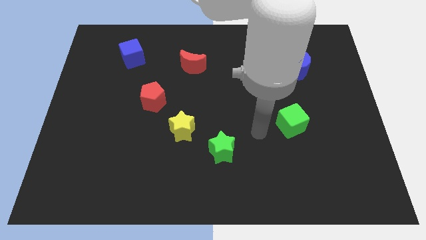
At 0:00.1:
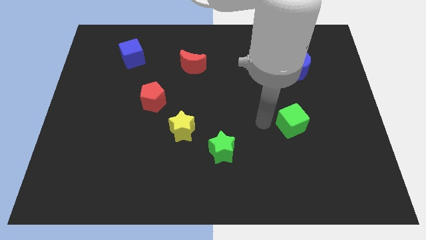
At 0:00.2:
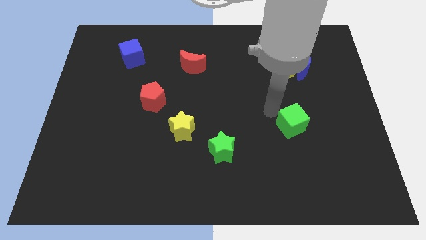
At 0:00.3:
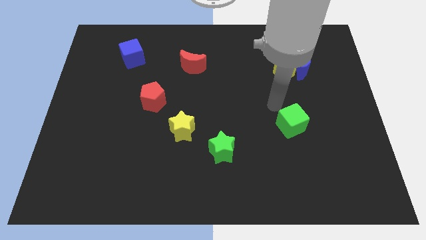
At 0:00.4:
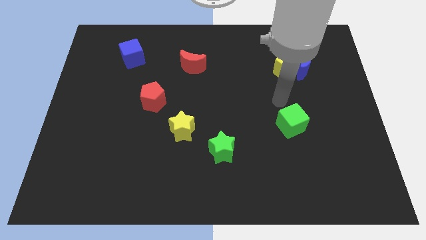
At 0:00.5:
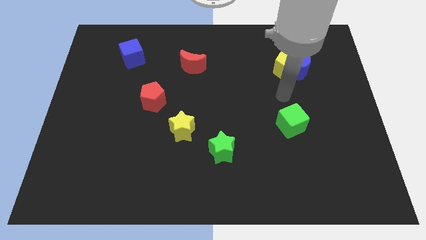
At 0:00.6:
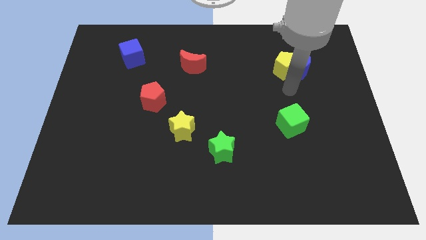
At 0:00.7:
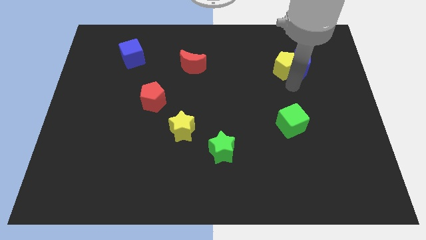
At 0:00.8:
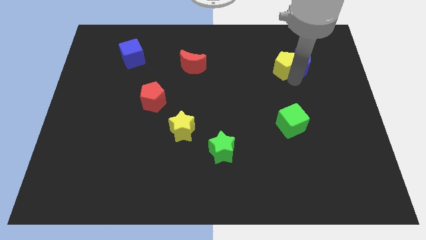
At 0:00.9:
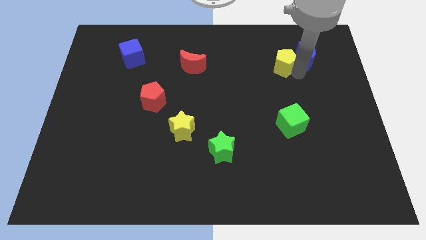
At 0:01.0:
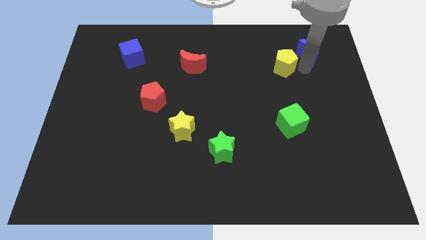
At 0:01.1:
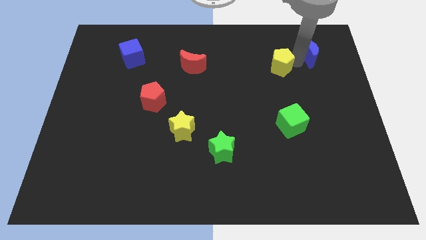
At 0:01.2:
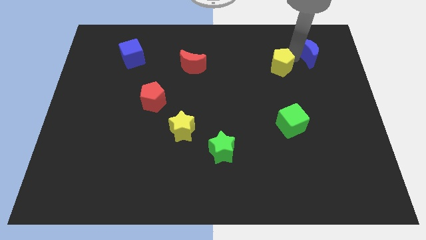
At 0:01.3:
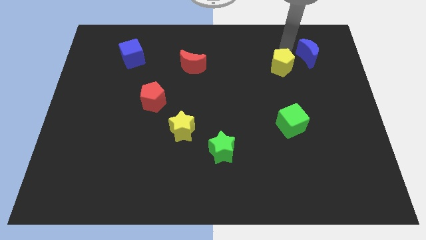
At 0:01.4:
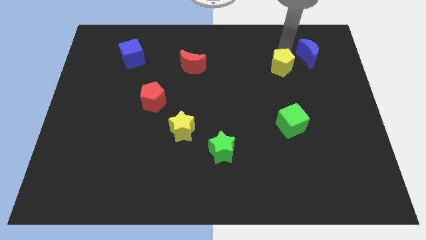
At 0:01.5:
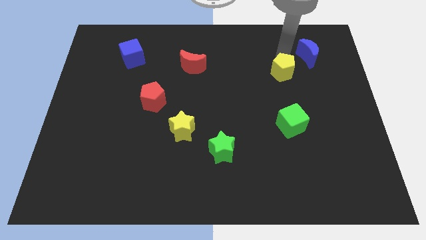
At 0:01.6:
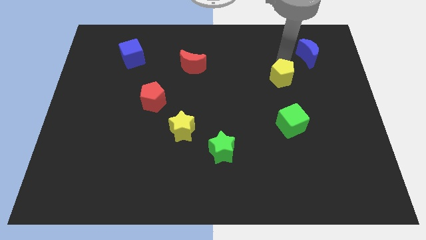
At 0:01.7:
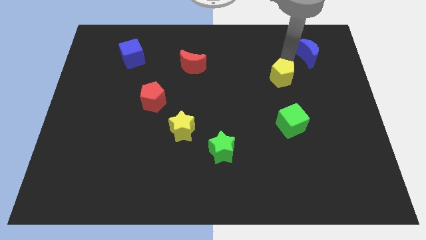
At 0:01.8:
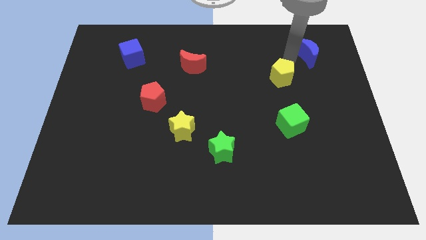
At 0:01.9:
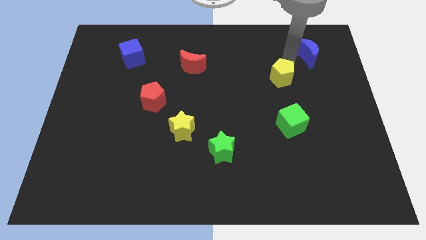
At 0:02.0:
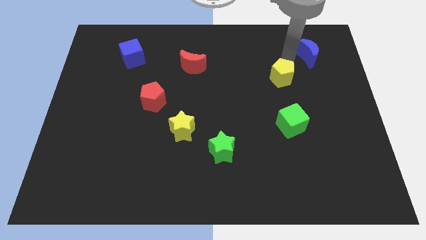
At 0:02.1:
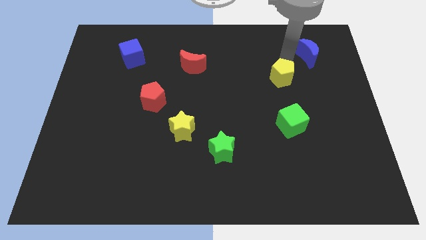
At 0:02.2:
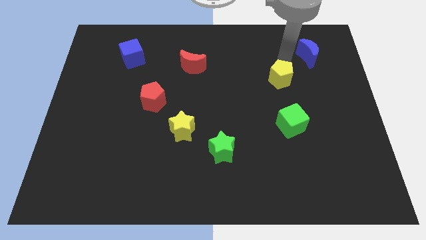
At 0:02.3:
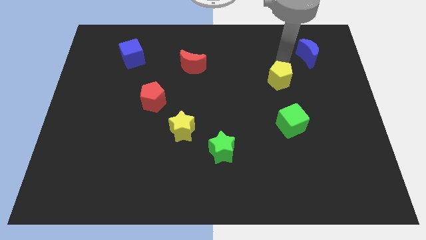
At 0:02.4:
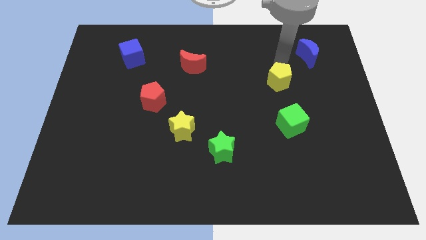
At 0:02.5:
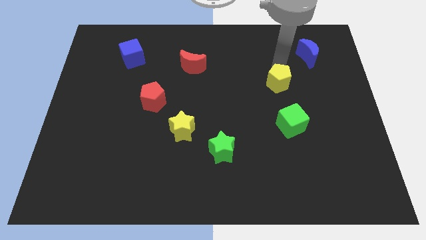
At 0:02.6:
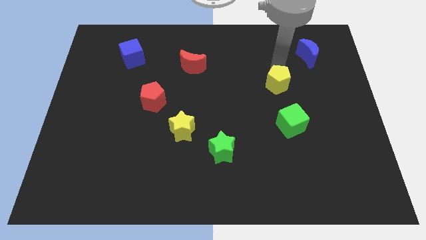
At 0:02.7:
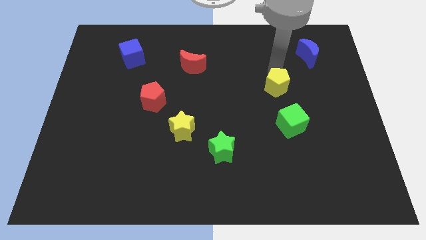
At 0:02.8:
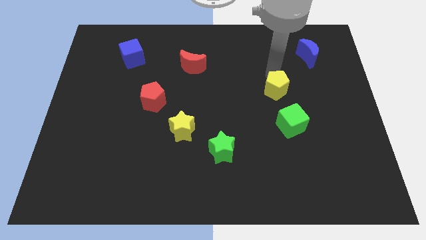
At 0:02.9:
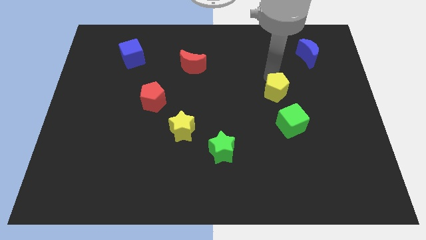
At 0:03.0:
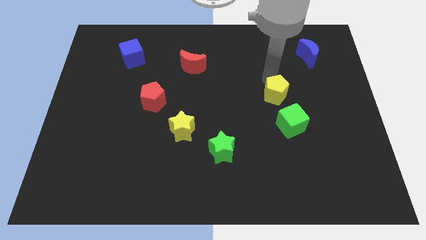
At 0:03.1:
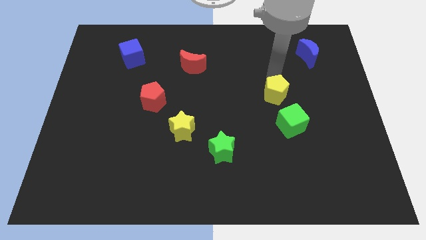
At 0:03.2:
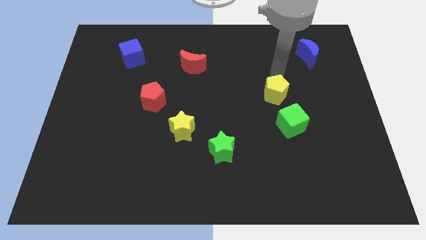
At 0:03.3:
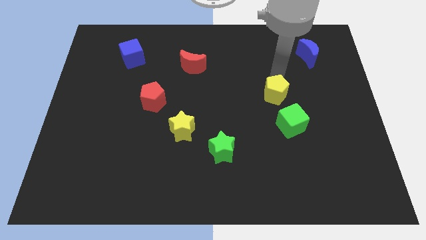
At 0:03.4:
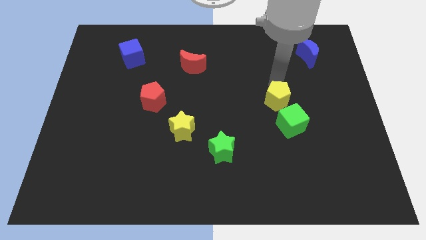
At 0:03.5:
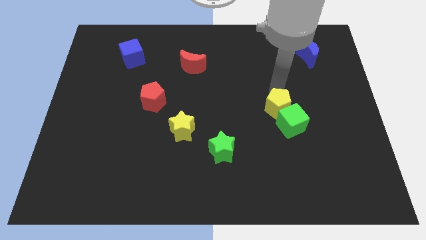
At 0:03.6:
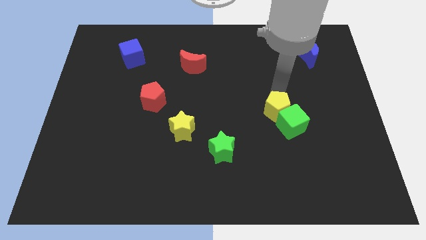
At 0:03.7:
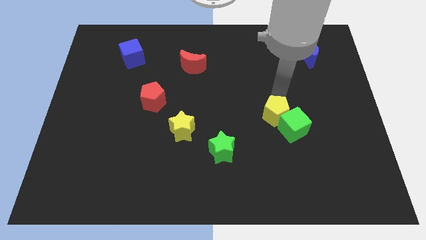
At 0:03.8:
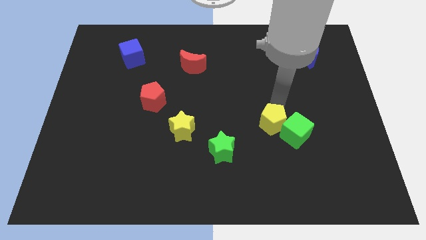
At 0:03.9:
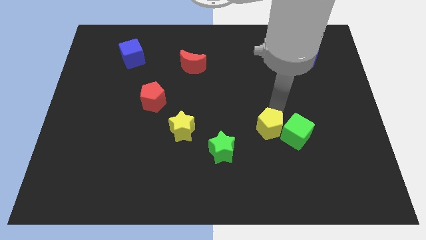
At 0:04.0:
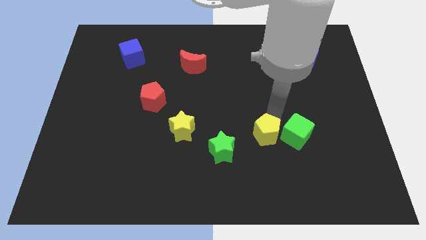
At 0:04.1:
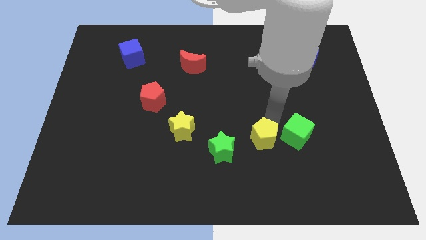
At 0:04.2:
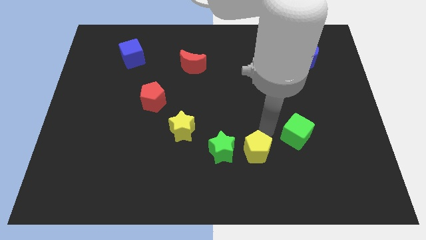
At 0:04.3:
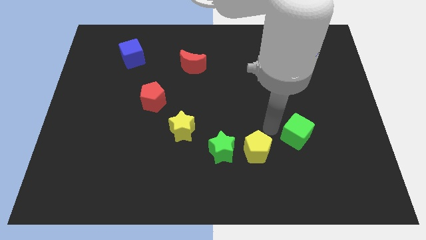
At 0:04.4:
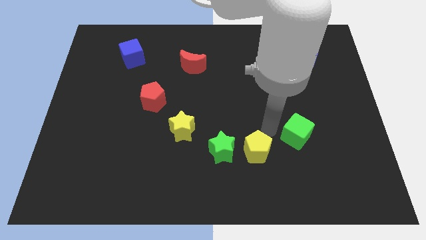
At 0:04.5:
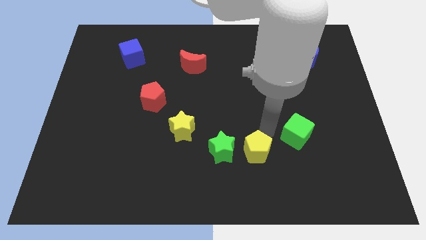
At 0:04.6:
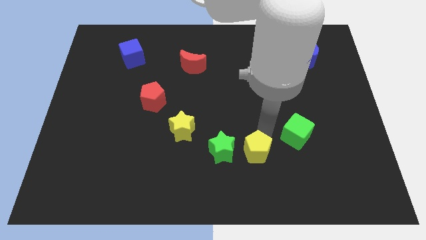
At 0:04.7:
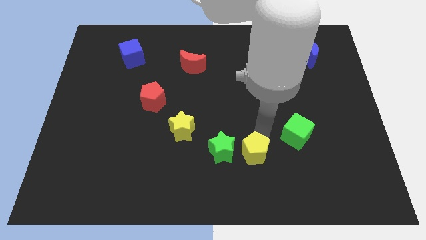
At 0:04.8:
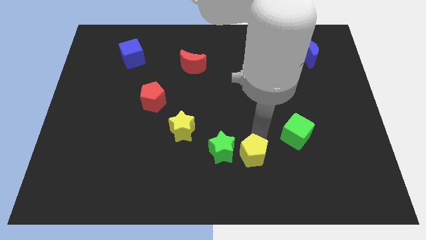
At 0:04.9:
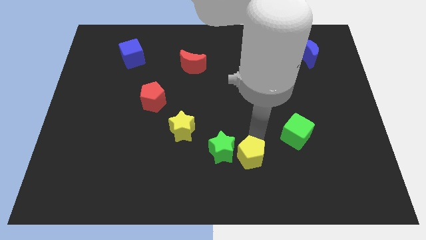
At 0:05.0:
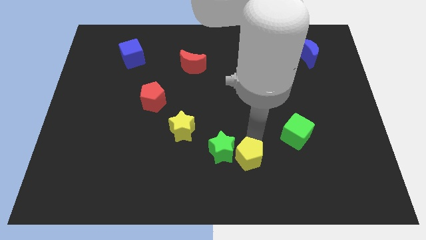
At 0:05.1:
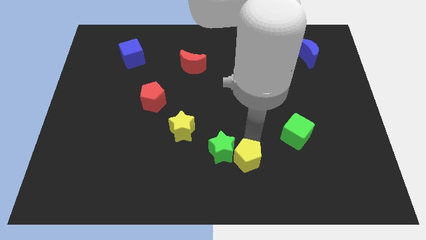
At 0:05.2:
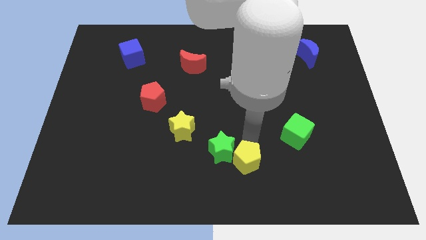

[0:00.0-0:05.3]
move the yellow pentagon to the bottom side

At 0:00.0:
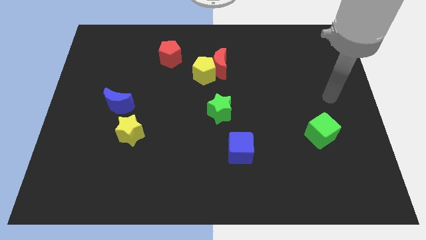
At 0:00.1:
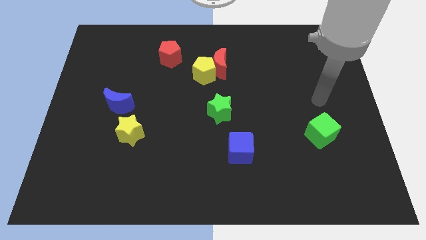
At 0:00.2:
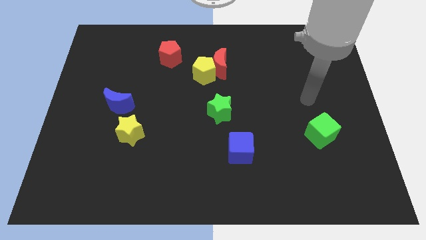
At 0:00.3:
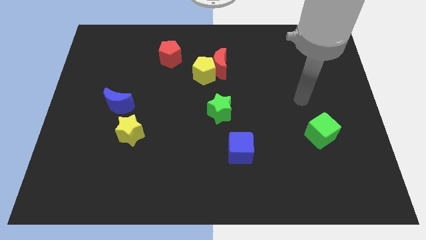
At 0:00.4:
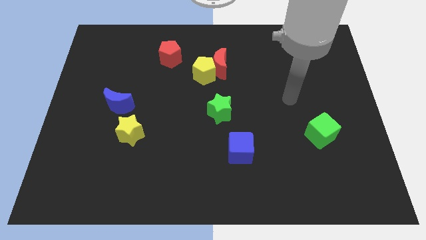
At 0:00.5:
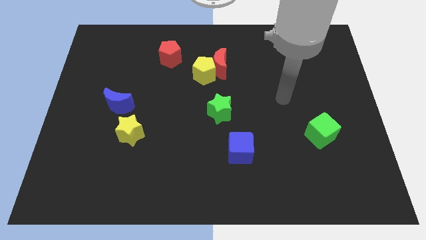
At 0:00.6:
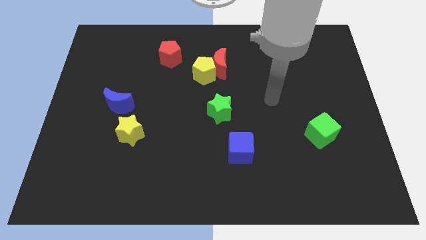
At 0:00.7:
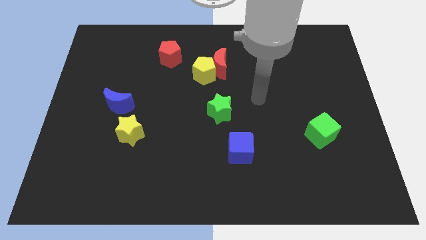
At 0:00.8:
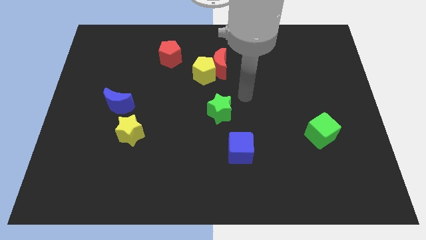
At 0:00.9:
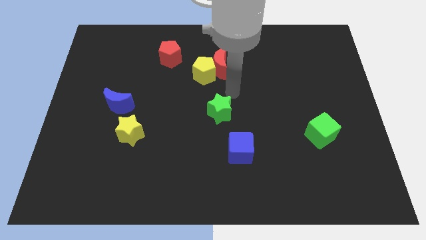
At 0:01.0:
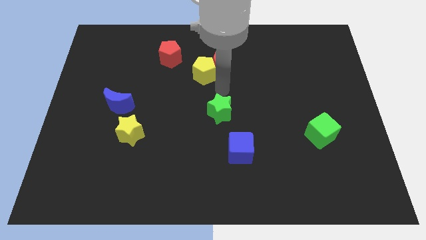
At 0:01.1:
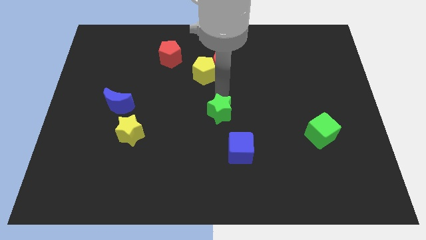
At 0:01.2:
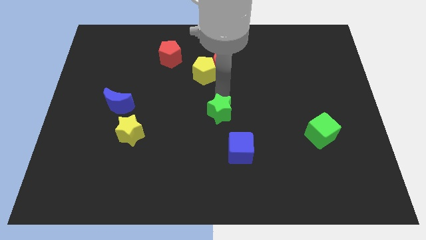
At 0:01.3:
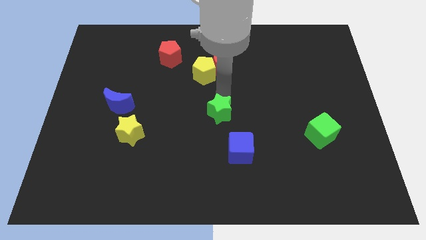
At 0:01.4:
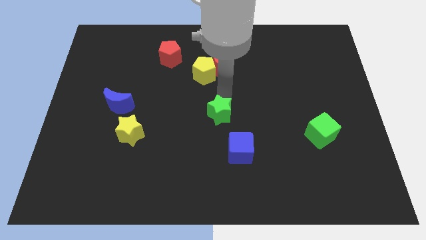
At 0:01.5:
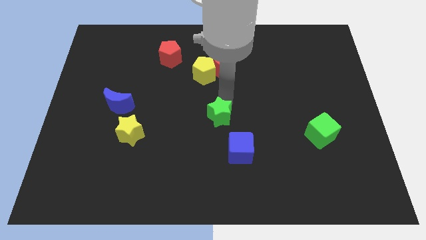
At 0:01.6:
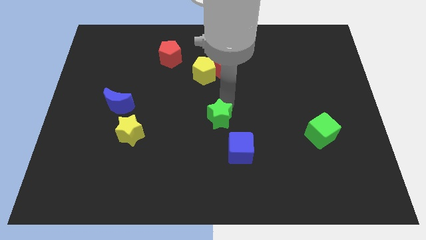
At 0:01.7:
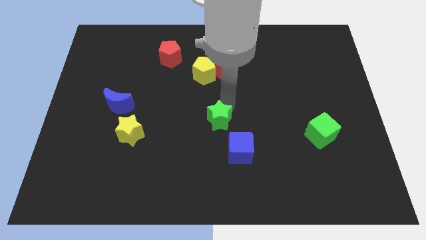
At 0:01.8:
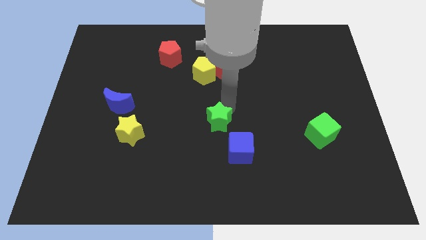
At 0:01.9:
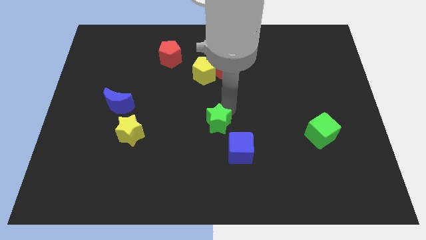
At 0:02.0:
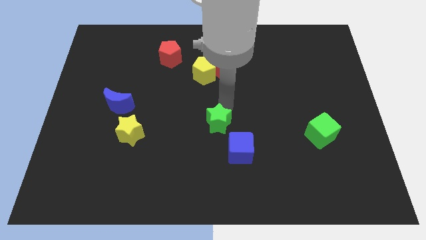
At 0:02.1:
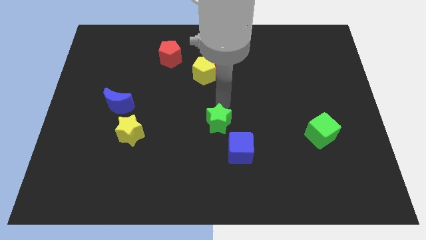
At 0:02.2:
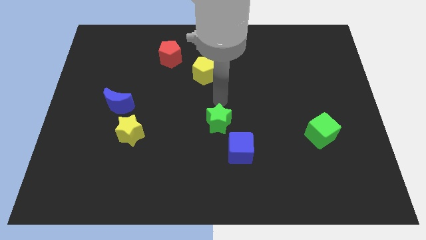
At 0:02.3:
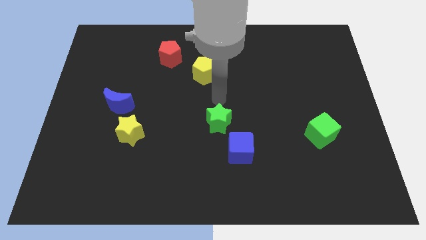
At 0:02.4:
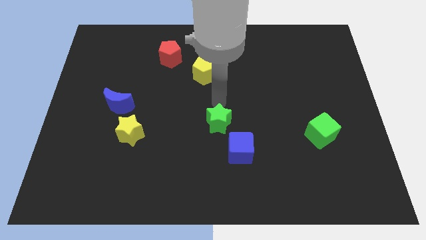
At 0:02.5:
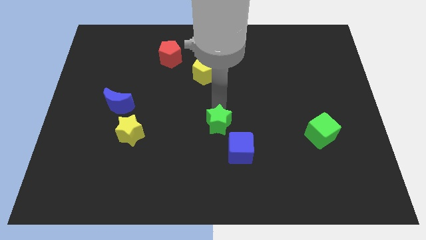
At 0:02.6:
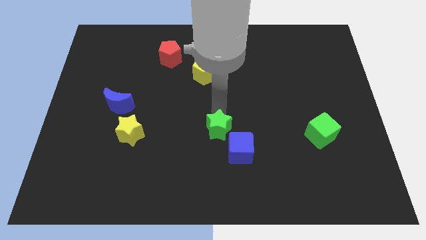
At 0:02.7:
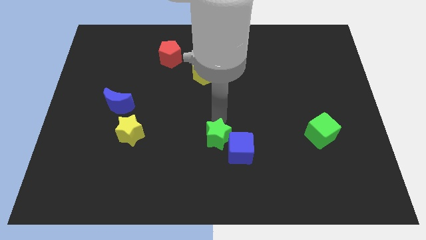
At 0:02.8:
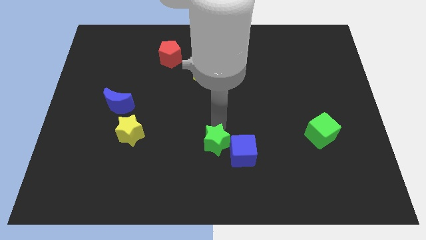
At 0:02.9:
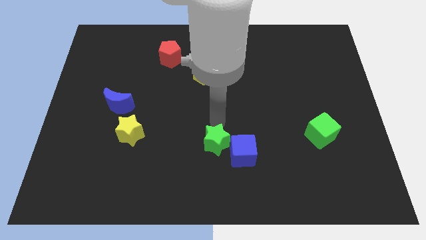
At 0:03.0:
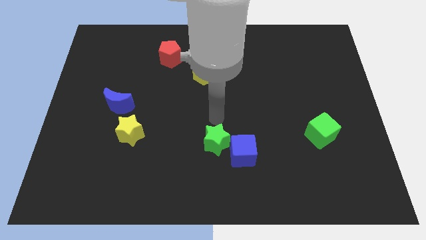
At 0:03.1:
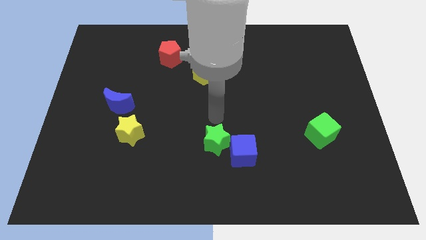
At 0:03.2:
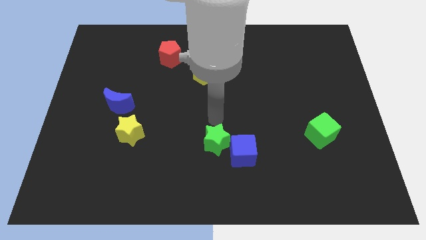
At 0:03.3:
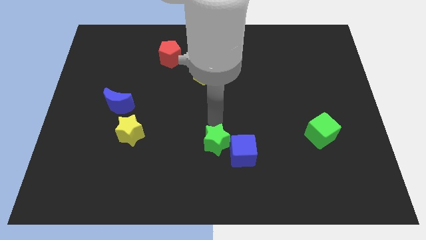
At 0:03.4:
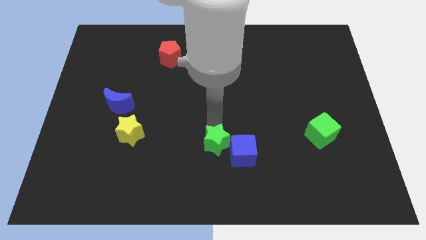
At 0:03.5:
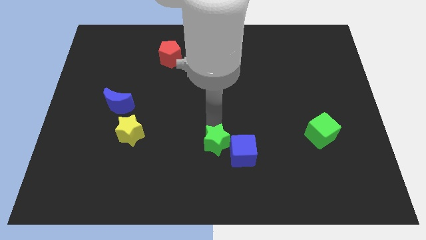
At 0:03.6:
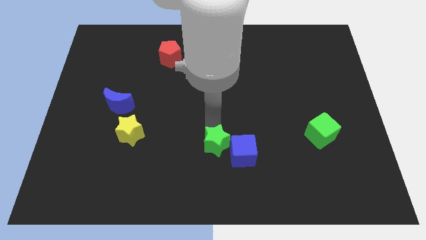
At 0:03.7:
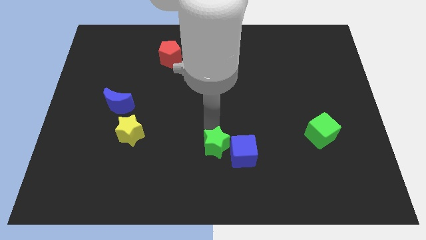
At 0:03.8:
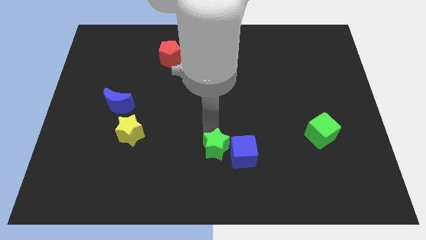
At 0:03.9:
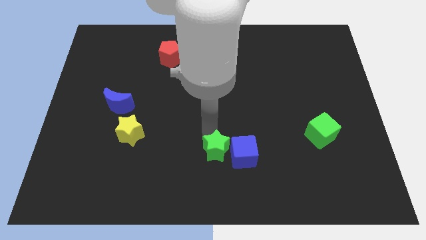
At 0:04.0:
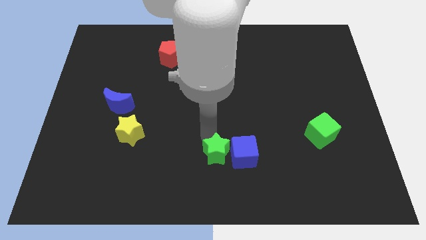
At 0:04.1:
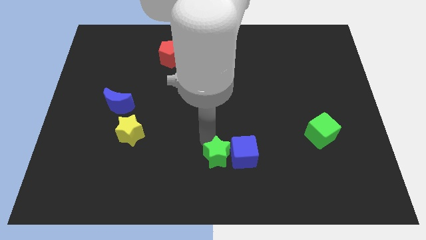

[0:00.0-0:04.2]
put the green star to the bottom
